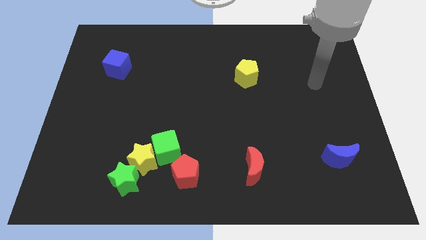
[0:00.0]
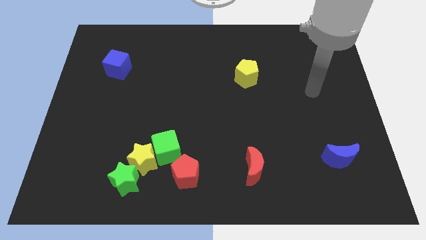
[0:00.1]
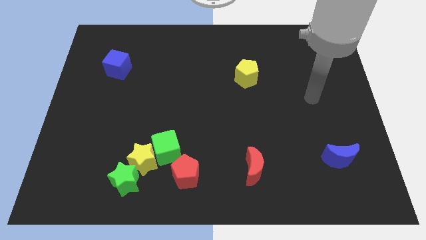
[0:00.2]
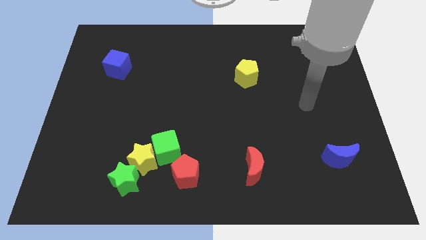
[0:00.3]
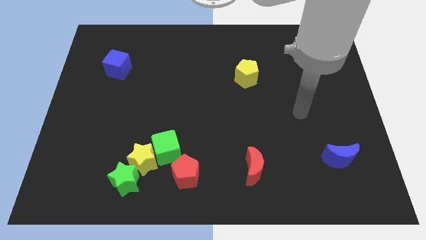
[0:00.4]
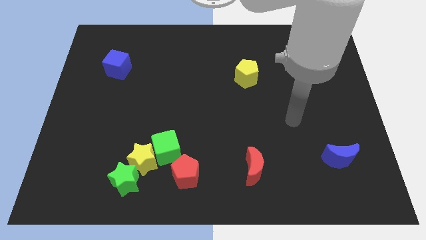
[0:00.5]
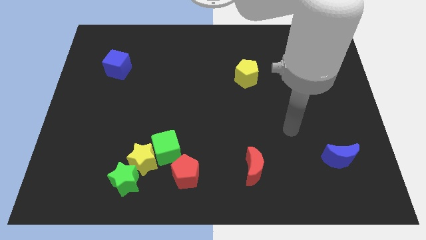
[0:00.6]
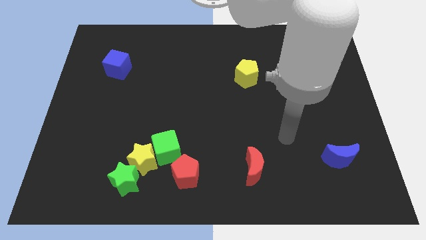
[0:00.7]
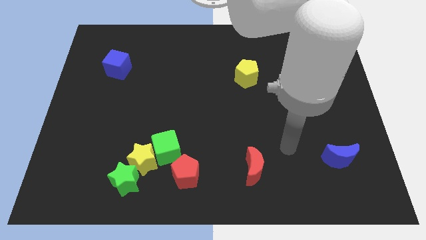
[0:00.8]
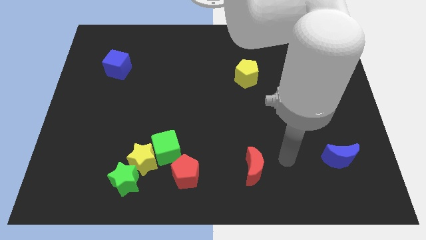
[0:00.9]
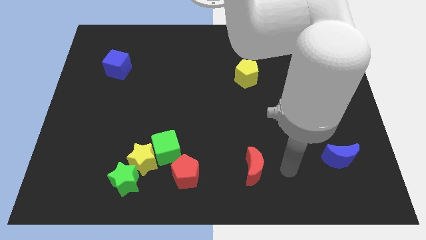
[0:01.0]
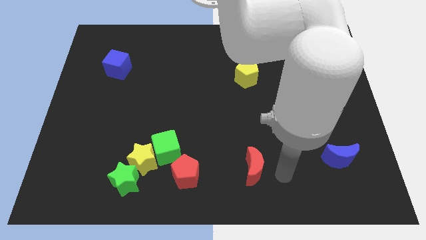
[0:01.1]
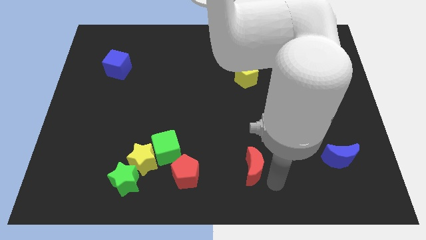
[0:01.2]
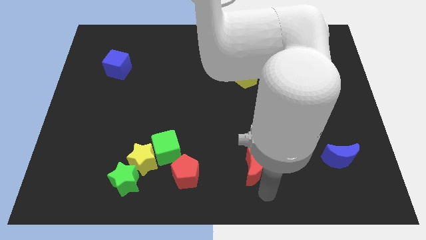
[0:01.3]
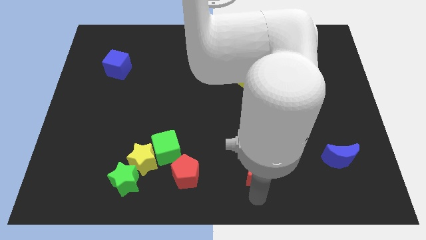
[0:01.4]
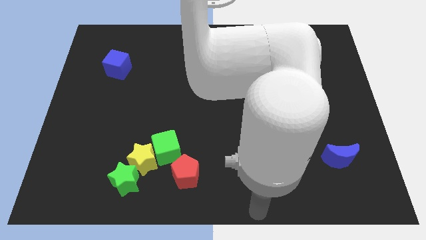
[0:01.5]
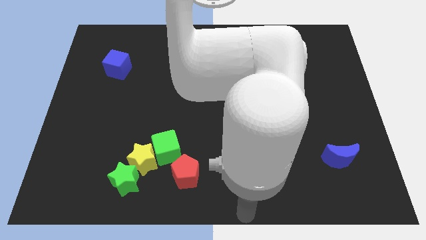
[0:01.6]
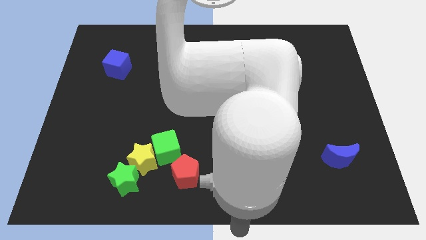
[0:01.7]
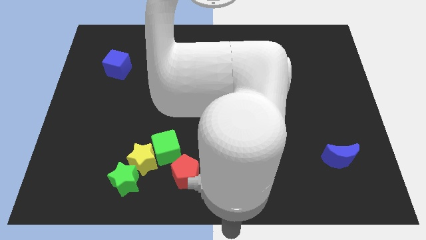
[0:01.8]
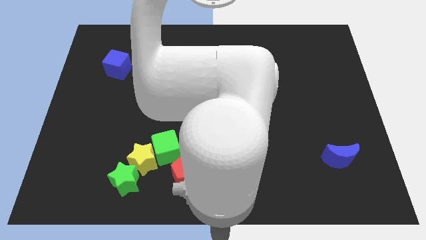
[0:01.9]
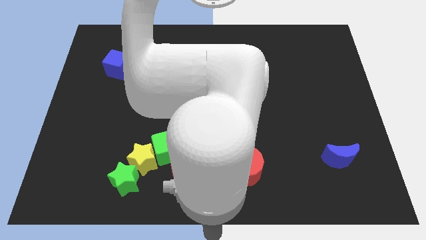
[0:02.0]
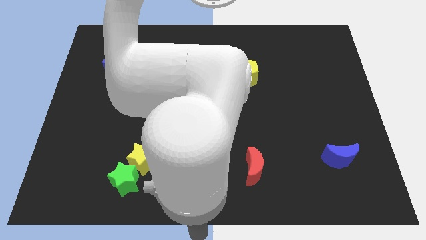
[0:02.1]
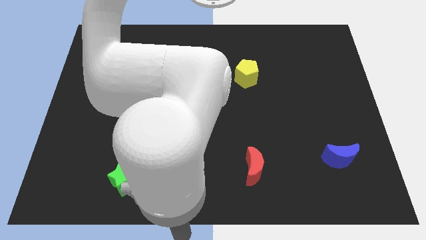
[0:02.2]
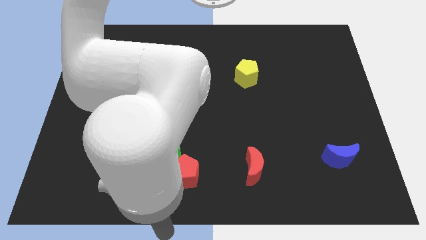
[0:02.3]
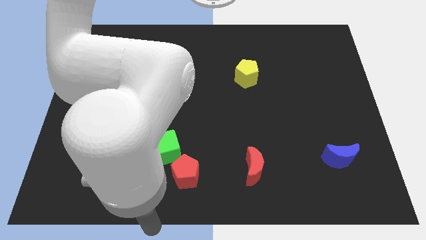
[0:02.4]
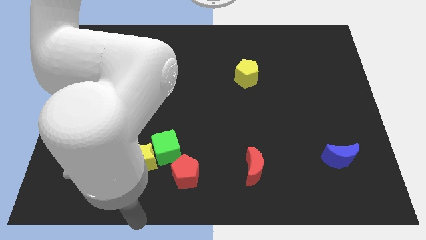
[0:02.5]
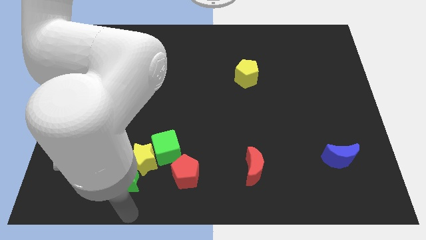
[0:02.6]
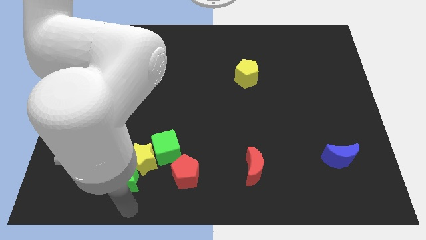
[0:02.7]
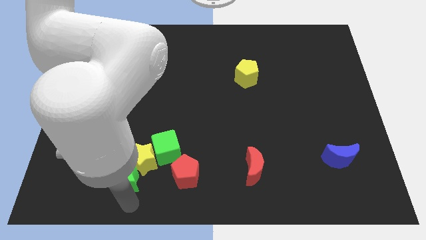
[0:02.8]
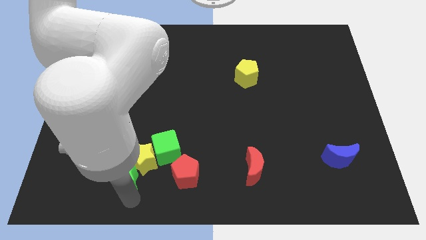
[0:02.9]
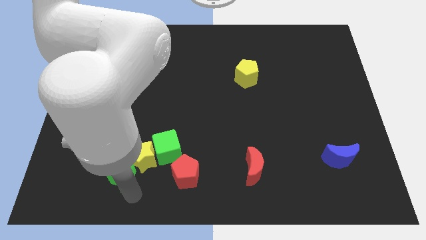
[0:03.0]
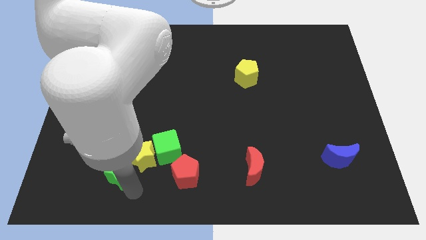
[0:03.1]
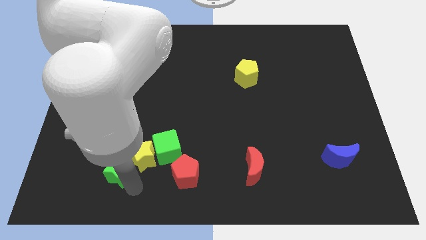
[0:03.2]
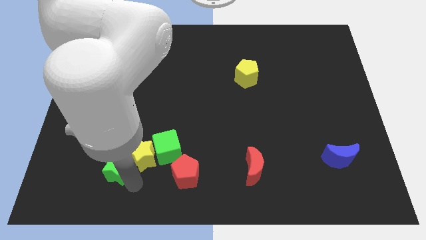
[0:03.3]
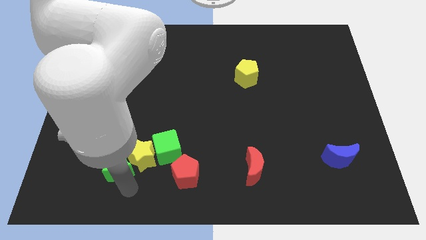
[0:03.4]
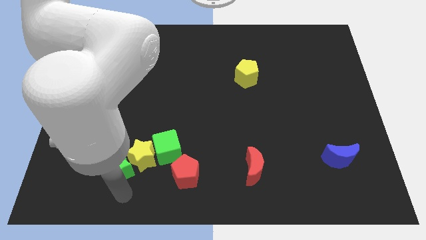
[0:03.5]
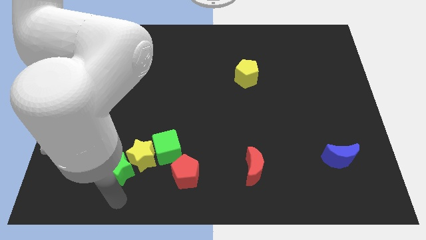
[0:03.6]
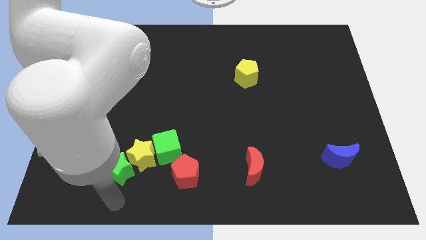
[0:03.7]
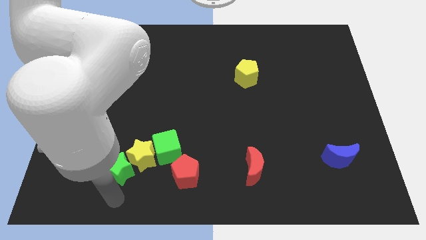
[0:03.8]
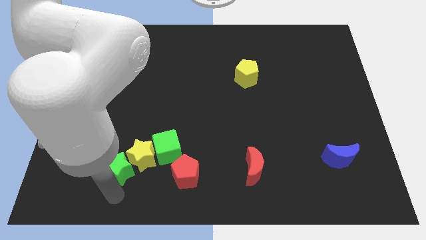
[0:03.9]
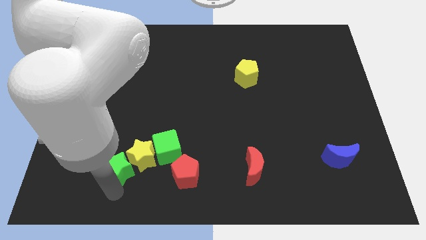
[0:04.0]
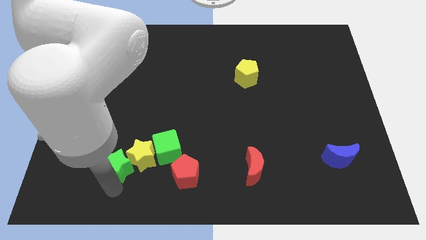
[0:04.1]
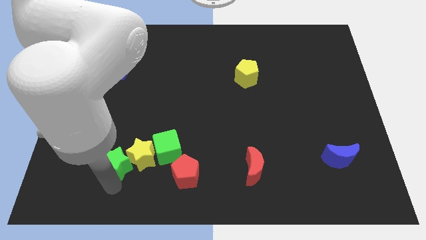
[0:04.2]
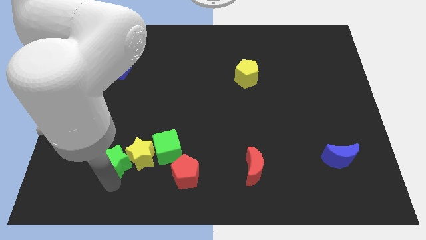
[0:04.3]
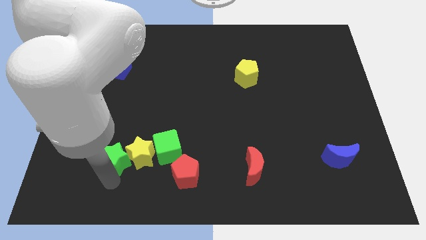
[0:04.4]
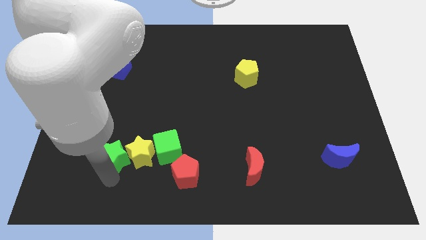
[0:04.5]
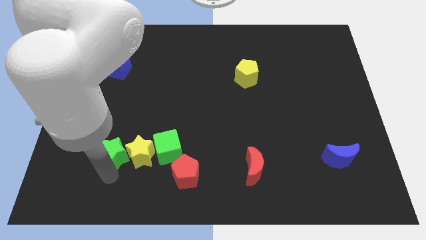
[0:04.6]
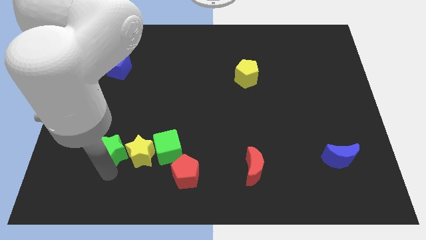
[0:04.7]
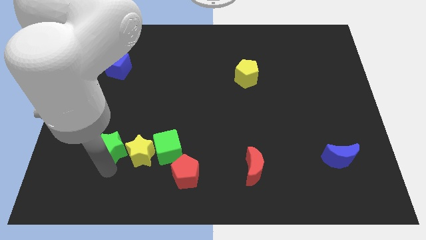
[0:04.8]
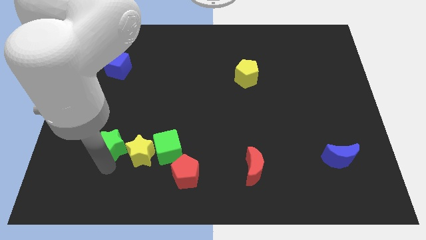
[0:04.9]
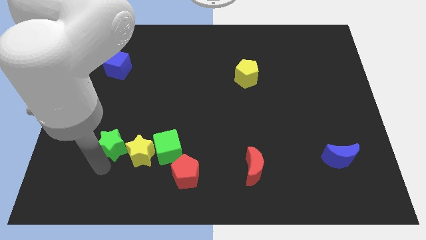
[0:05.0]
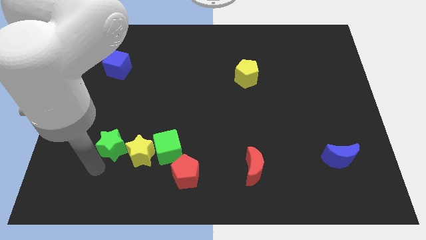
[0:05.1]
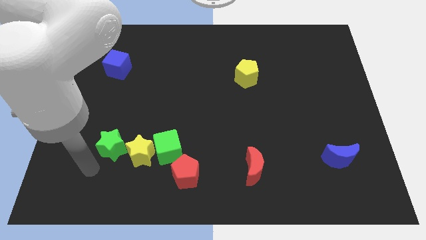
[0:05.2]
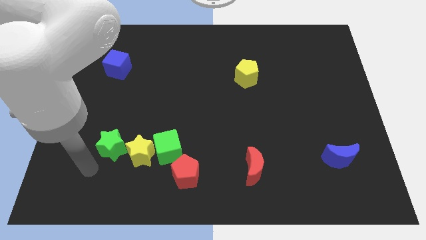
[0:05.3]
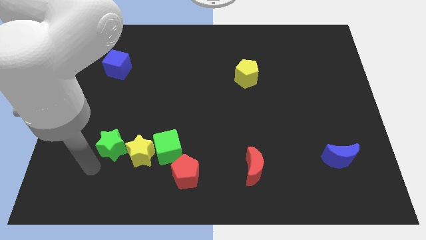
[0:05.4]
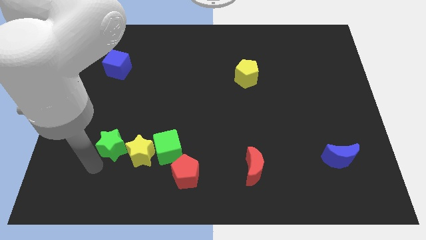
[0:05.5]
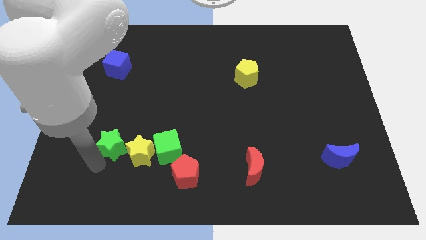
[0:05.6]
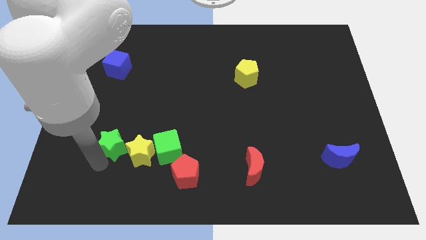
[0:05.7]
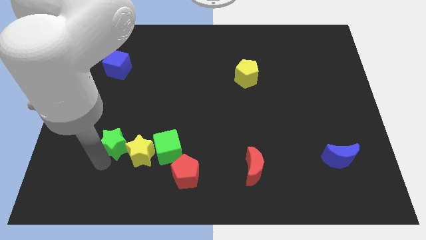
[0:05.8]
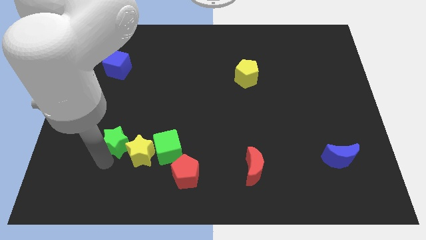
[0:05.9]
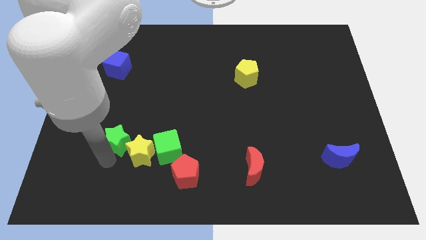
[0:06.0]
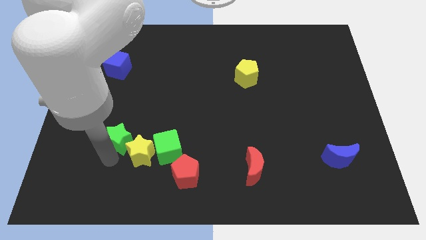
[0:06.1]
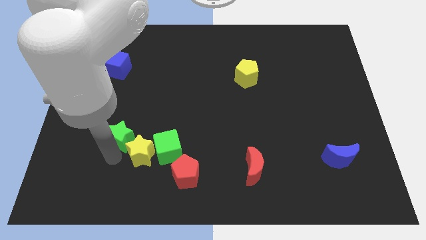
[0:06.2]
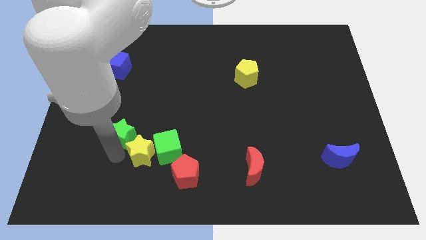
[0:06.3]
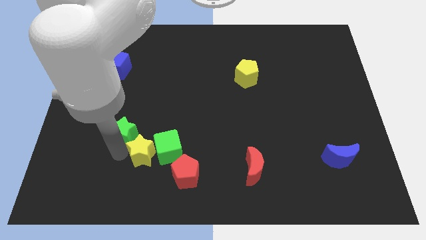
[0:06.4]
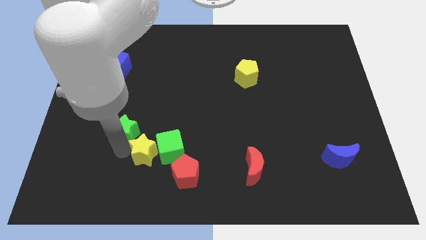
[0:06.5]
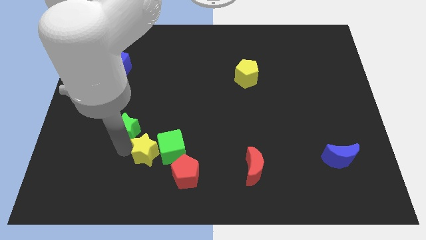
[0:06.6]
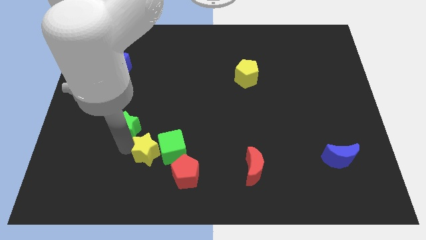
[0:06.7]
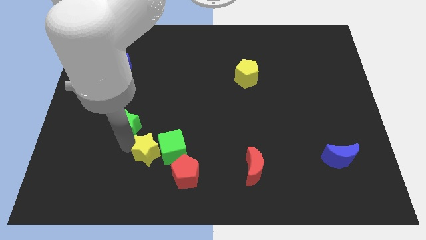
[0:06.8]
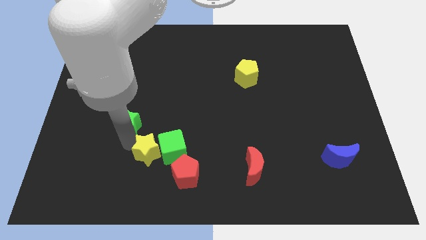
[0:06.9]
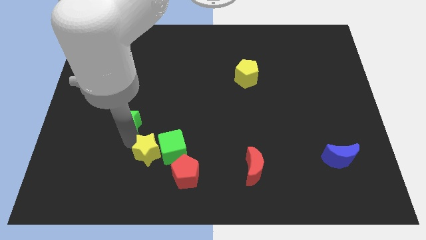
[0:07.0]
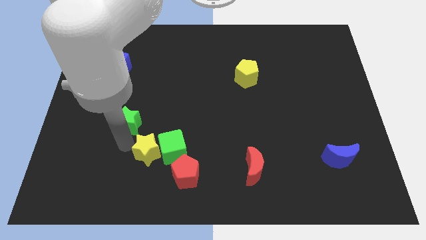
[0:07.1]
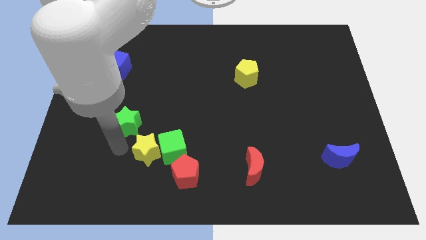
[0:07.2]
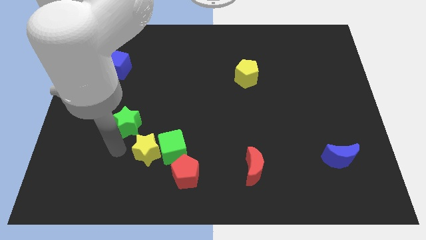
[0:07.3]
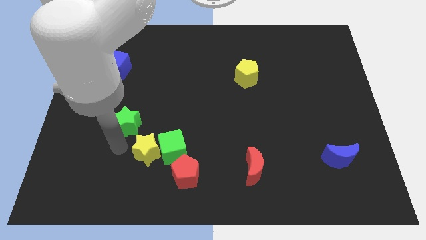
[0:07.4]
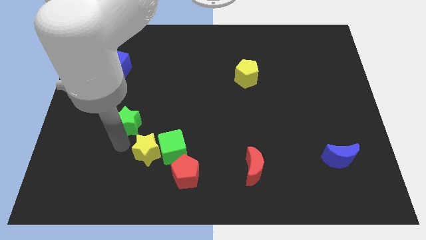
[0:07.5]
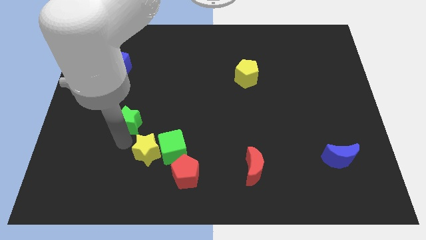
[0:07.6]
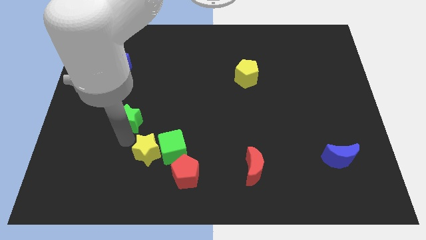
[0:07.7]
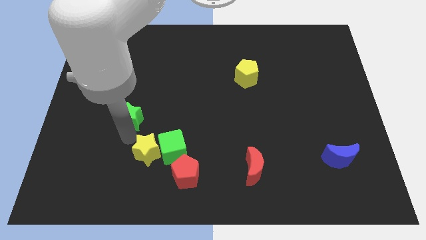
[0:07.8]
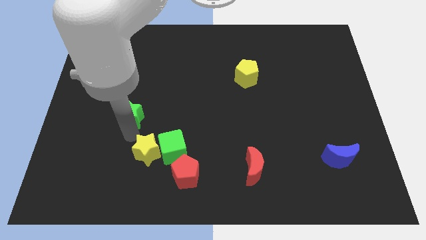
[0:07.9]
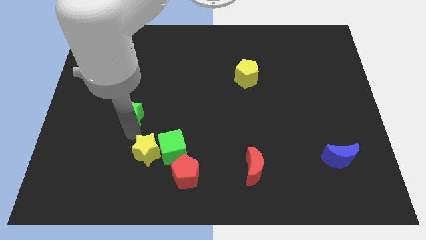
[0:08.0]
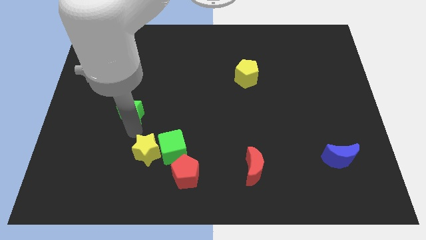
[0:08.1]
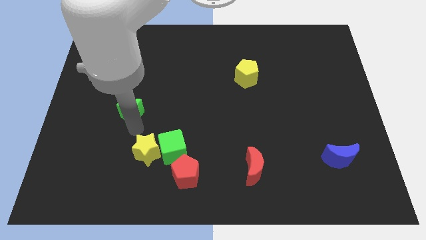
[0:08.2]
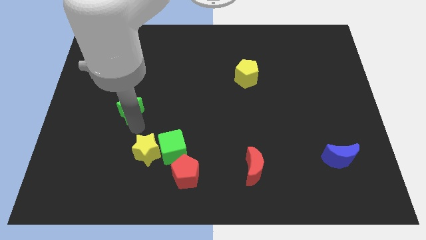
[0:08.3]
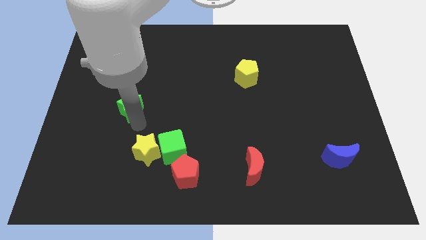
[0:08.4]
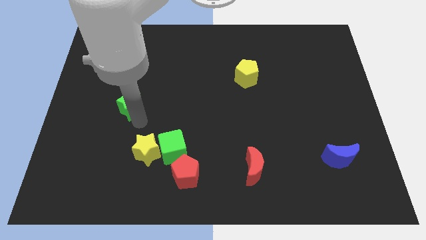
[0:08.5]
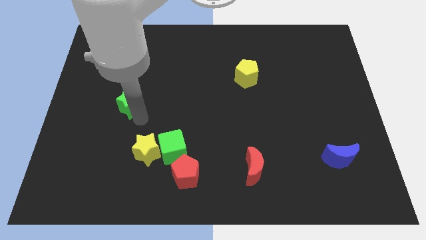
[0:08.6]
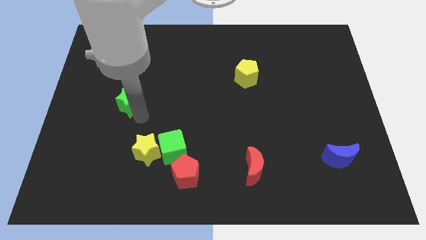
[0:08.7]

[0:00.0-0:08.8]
slide the green star up
